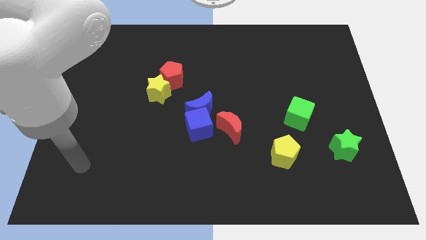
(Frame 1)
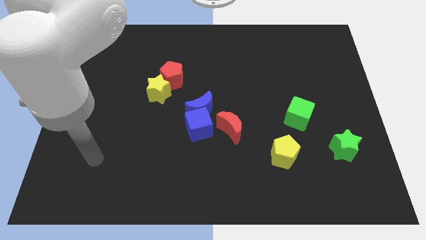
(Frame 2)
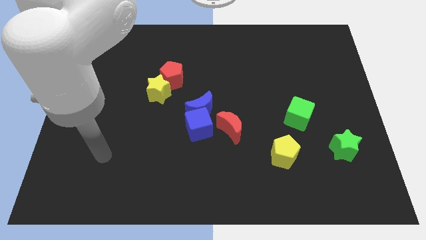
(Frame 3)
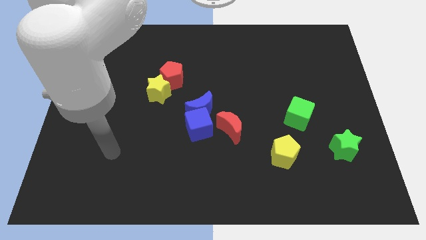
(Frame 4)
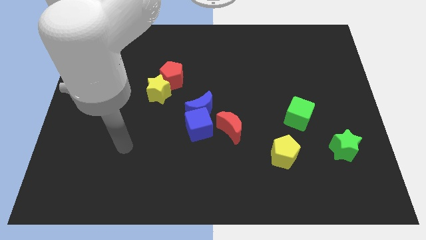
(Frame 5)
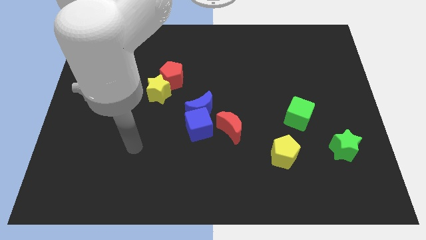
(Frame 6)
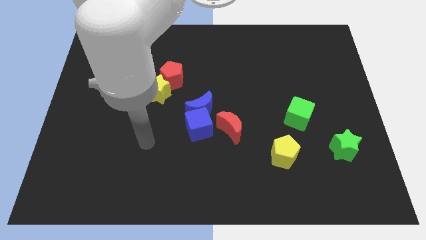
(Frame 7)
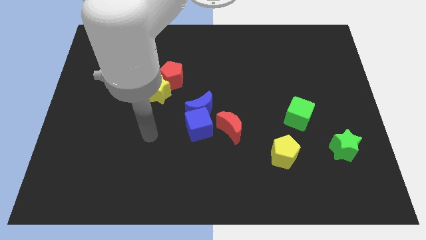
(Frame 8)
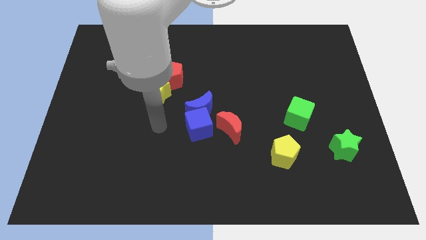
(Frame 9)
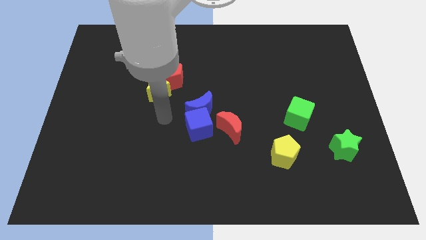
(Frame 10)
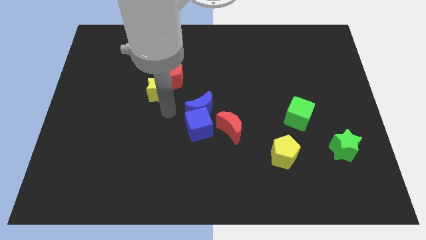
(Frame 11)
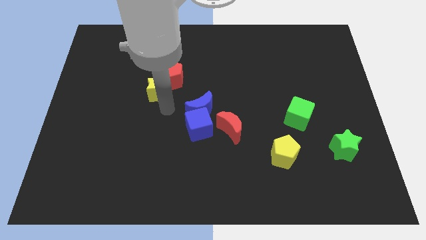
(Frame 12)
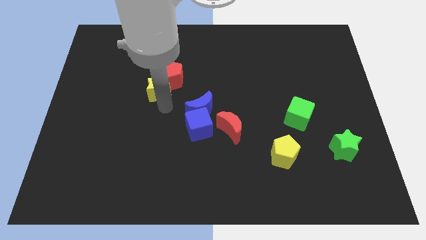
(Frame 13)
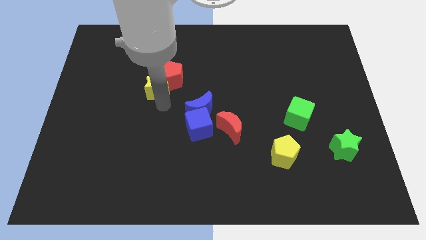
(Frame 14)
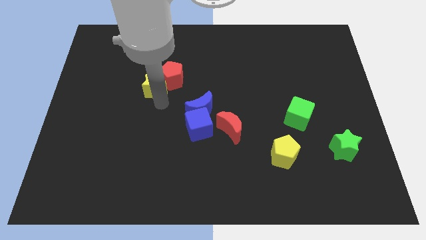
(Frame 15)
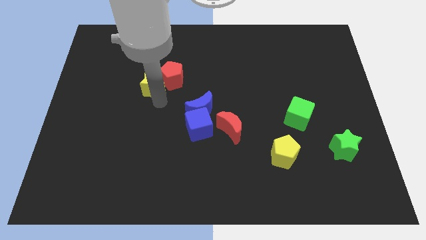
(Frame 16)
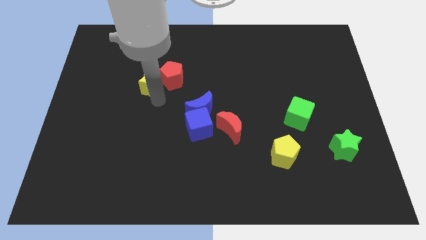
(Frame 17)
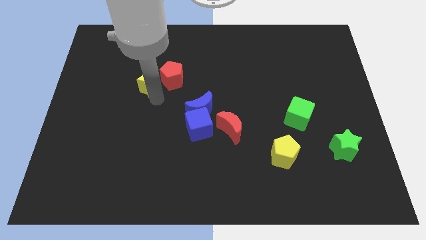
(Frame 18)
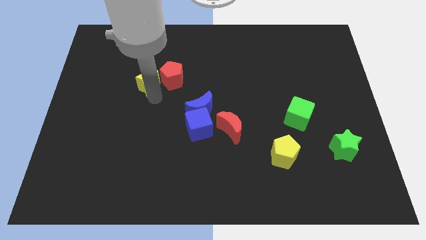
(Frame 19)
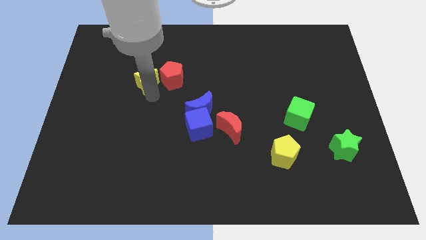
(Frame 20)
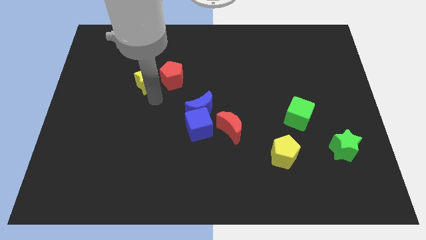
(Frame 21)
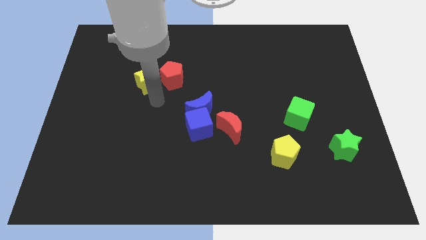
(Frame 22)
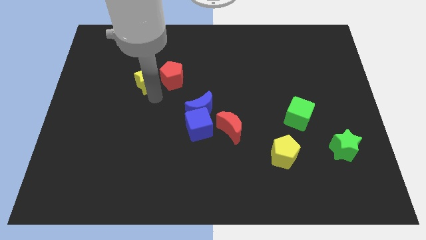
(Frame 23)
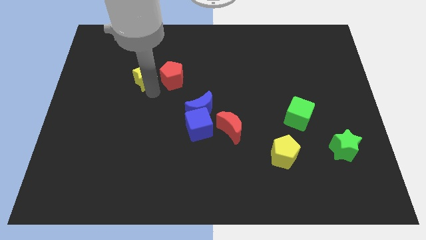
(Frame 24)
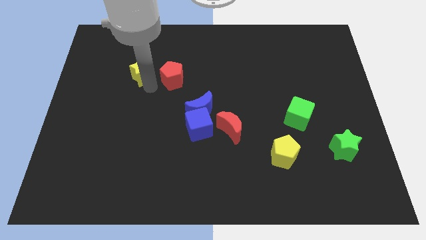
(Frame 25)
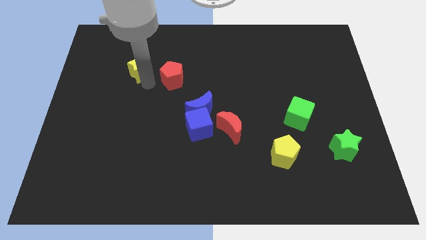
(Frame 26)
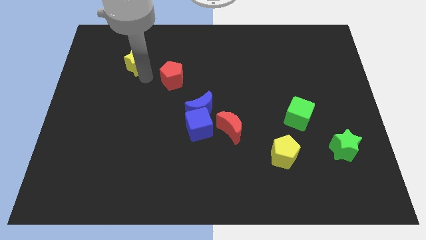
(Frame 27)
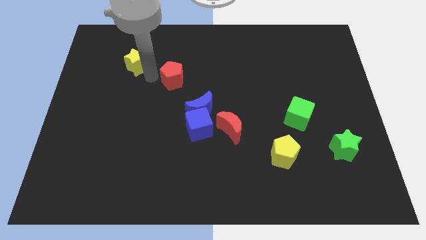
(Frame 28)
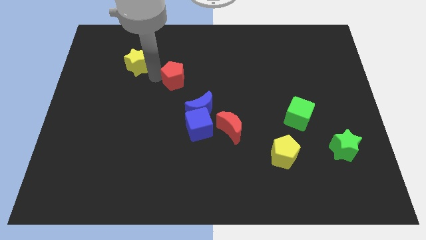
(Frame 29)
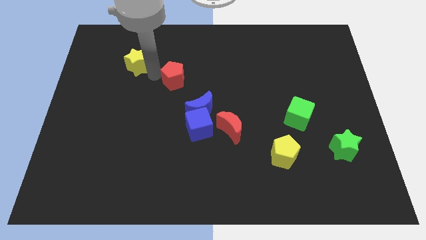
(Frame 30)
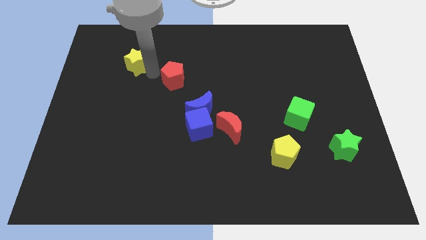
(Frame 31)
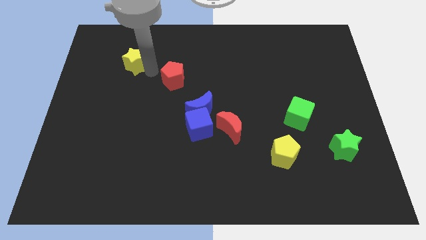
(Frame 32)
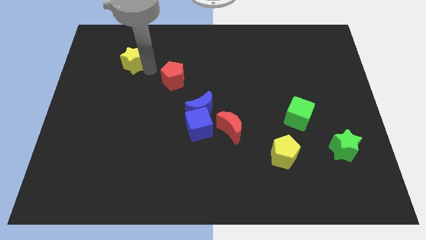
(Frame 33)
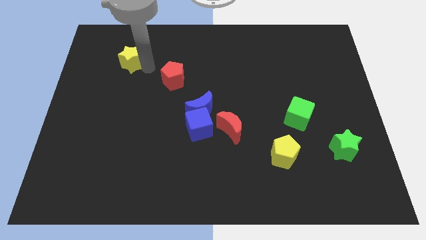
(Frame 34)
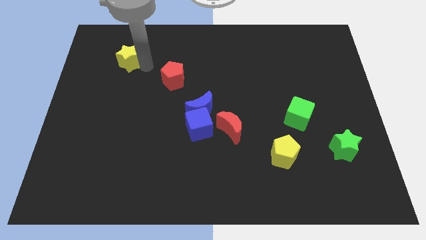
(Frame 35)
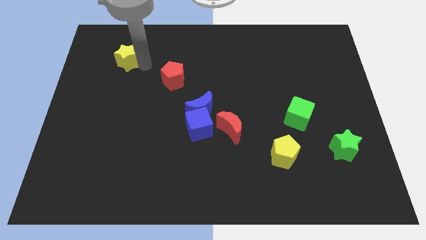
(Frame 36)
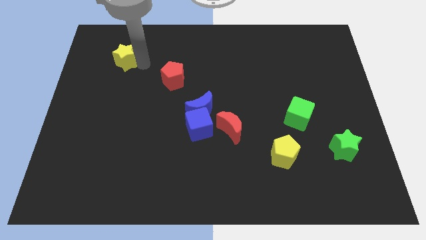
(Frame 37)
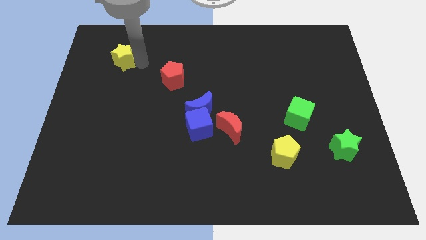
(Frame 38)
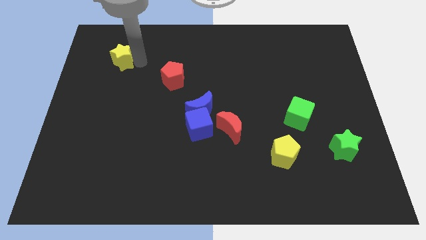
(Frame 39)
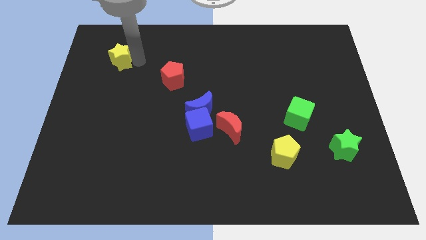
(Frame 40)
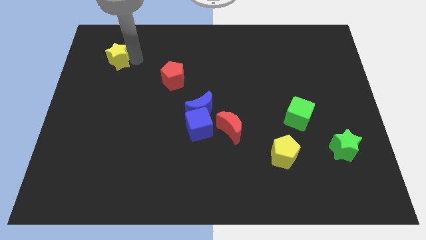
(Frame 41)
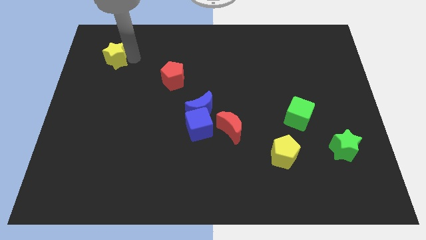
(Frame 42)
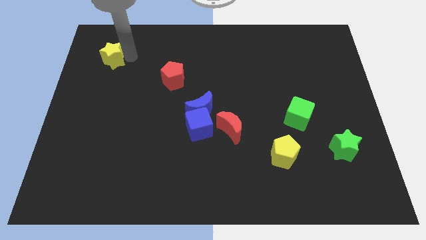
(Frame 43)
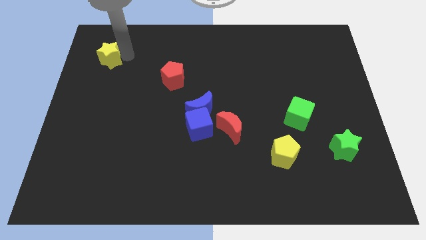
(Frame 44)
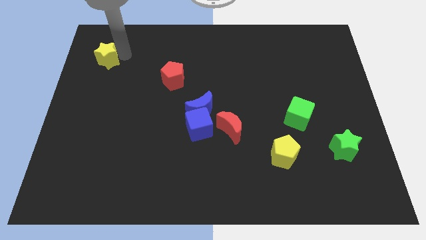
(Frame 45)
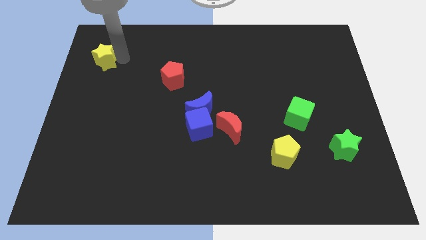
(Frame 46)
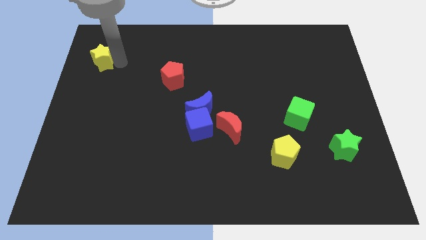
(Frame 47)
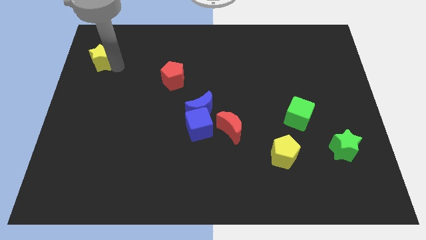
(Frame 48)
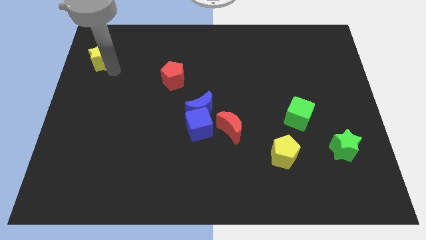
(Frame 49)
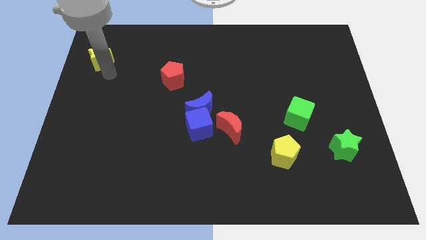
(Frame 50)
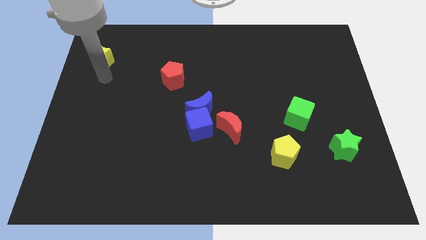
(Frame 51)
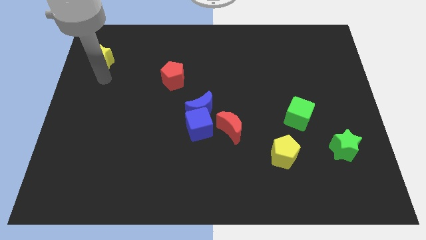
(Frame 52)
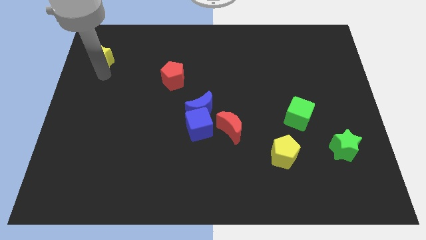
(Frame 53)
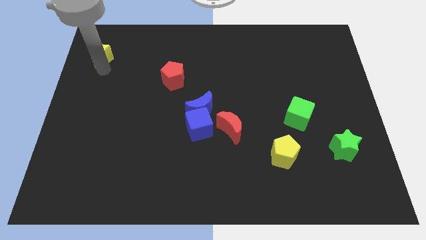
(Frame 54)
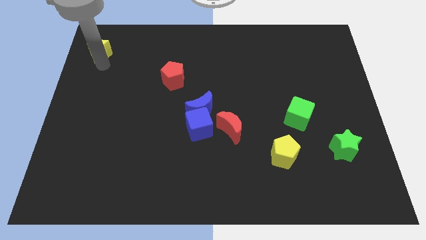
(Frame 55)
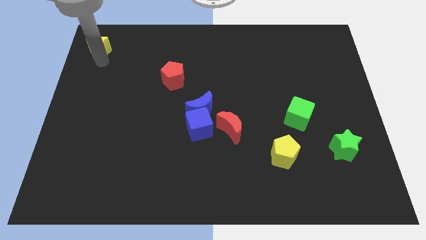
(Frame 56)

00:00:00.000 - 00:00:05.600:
push the yellow star to the upper left corner
